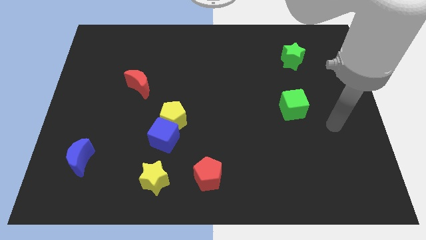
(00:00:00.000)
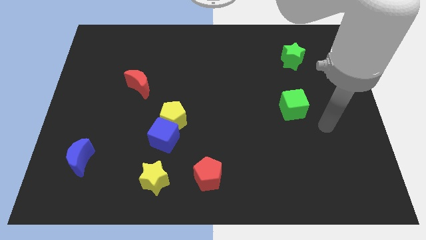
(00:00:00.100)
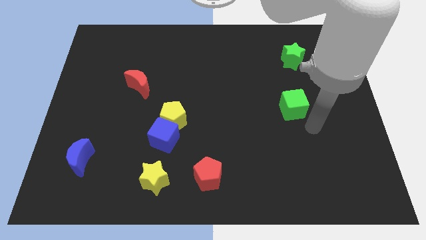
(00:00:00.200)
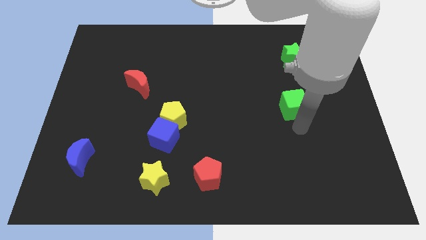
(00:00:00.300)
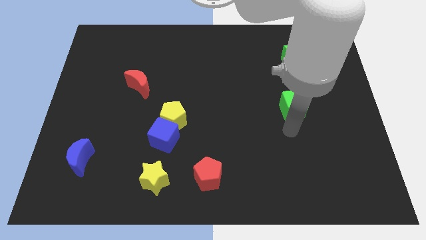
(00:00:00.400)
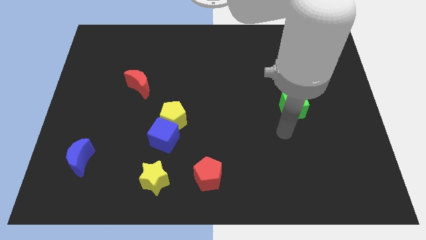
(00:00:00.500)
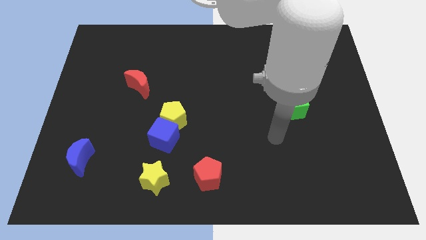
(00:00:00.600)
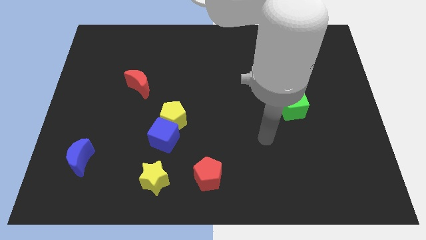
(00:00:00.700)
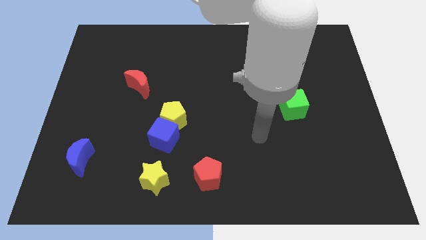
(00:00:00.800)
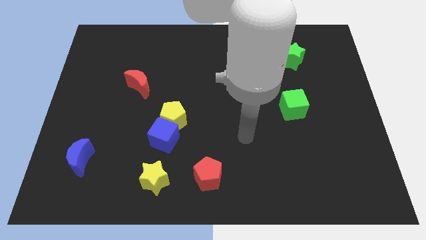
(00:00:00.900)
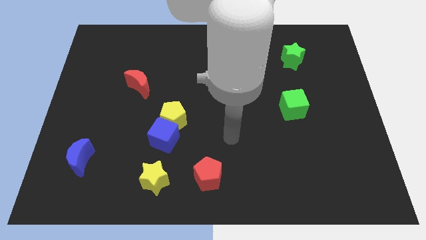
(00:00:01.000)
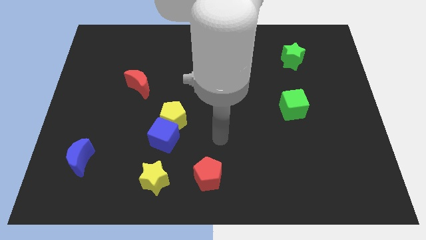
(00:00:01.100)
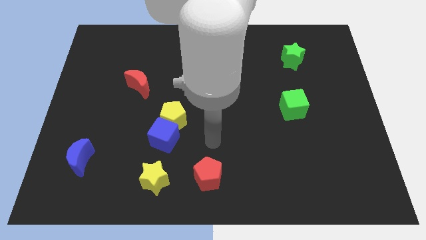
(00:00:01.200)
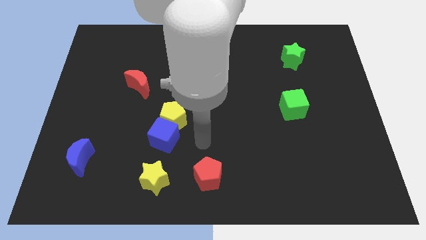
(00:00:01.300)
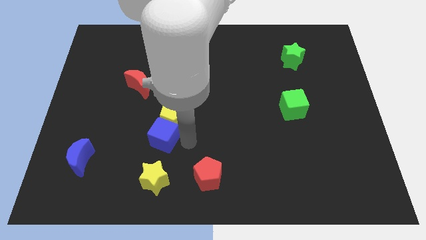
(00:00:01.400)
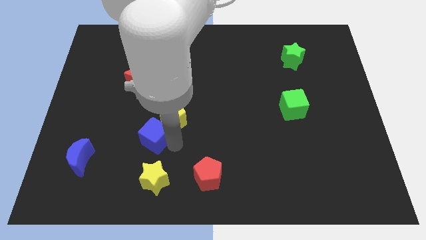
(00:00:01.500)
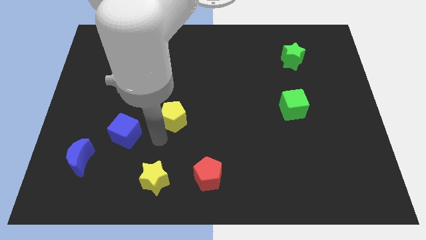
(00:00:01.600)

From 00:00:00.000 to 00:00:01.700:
move the yellow pentagon away from the blue cube

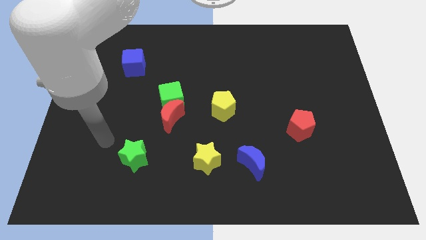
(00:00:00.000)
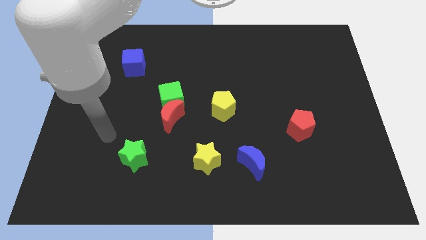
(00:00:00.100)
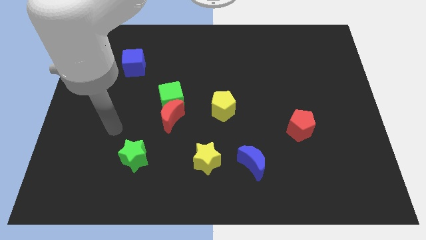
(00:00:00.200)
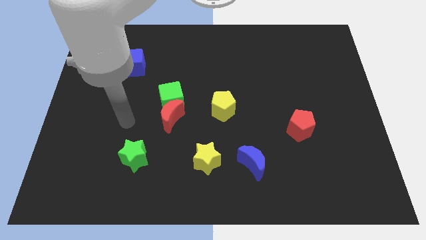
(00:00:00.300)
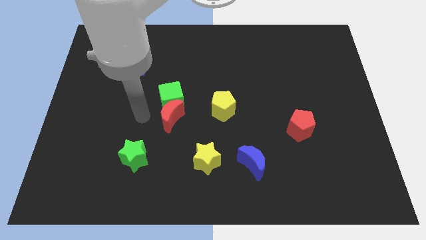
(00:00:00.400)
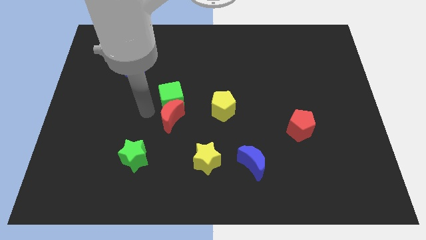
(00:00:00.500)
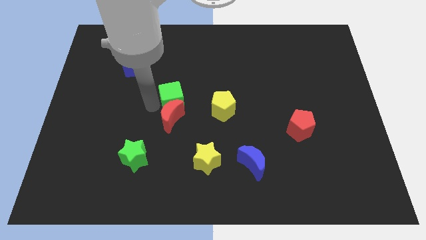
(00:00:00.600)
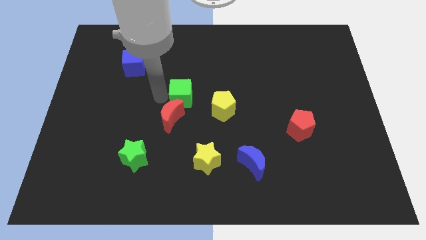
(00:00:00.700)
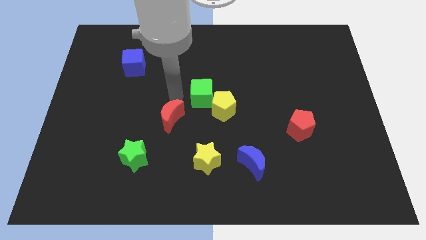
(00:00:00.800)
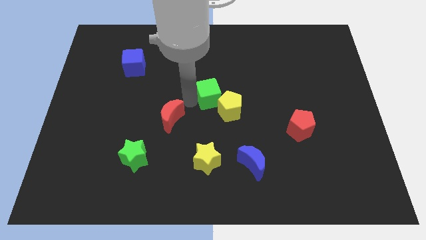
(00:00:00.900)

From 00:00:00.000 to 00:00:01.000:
separate the red moon from the green cube

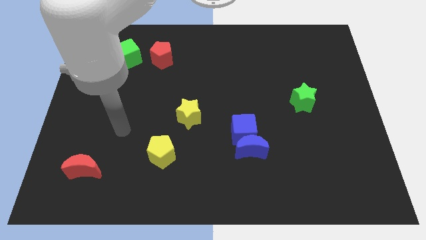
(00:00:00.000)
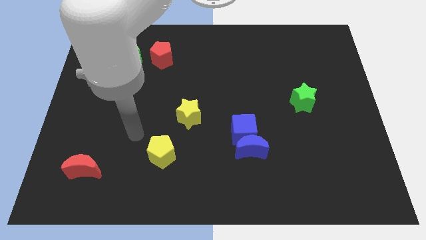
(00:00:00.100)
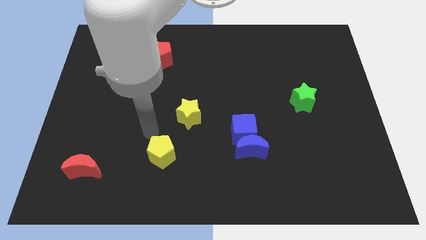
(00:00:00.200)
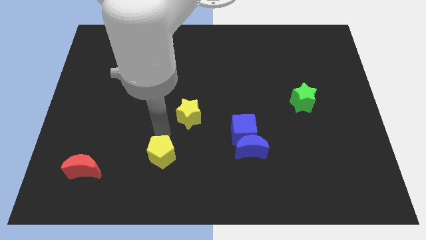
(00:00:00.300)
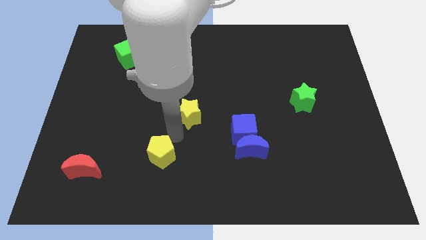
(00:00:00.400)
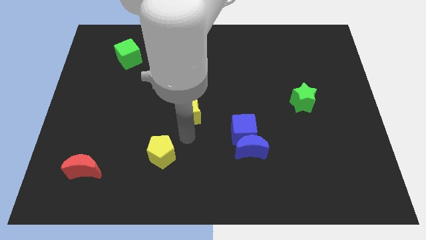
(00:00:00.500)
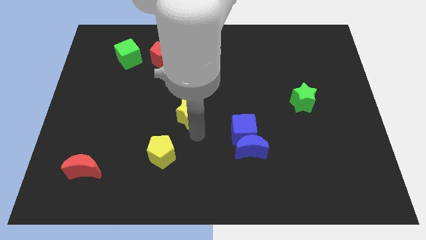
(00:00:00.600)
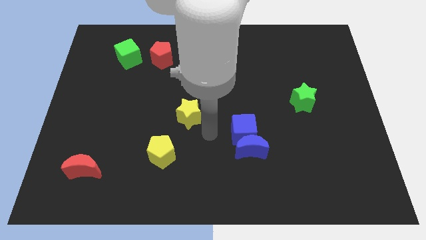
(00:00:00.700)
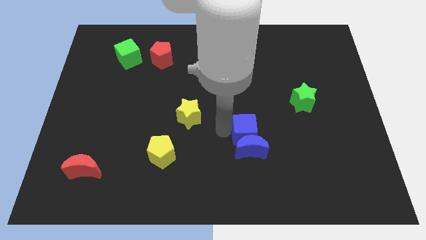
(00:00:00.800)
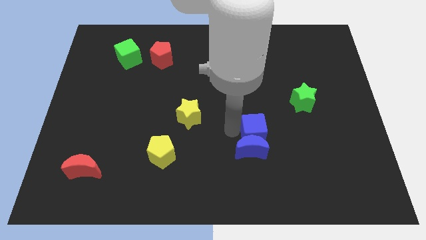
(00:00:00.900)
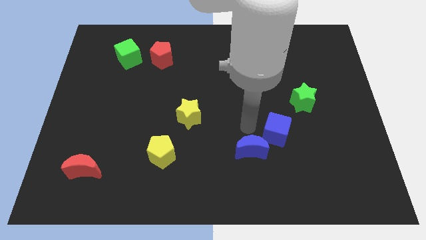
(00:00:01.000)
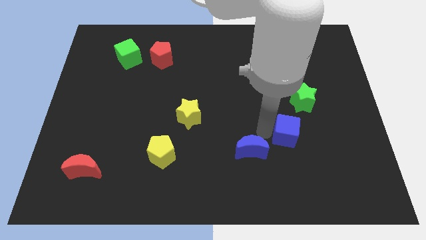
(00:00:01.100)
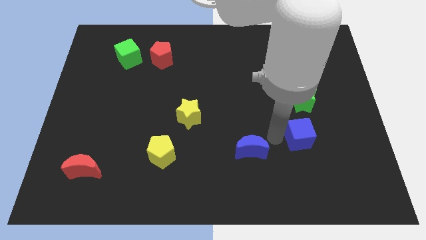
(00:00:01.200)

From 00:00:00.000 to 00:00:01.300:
pull the blue moon apart from the blue cube

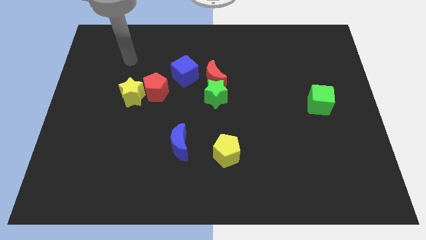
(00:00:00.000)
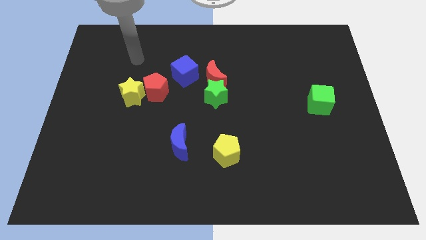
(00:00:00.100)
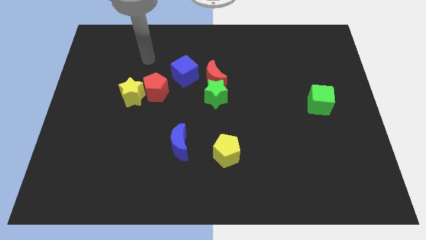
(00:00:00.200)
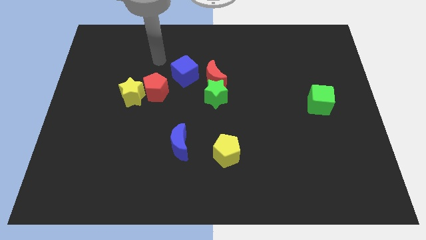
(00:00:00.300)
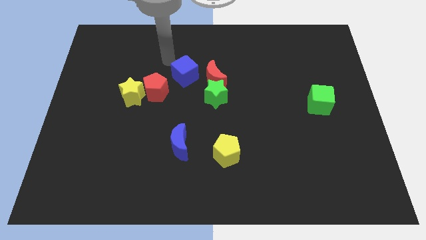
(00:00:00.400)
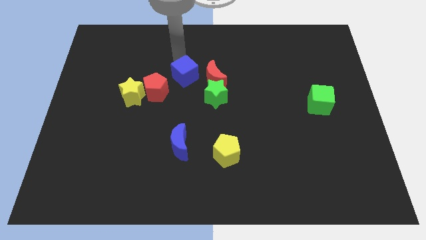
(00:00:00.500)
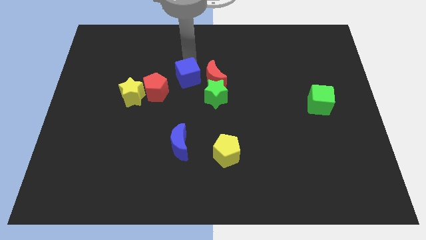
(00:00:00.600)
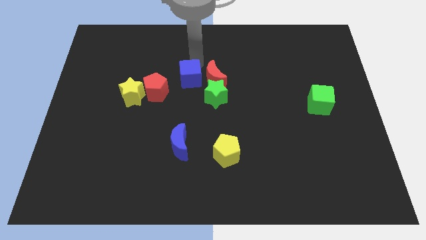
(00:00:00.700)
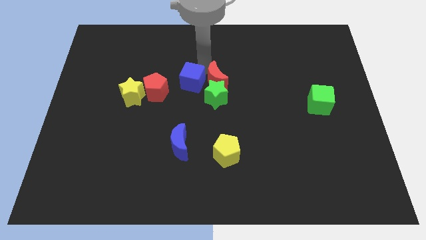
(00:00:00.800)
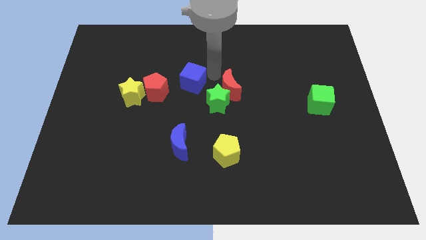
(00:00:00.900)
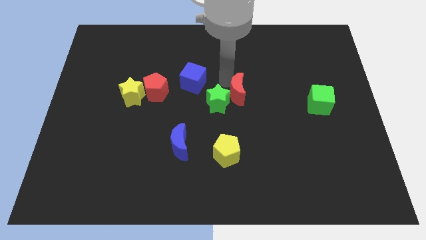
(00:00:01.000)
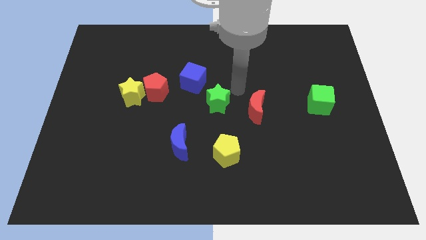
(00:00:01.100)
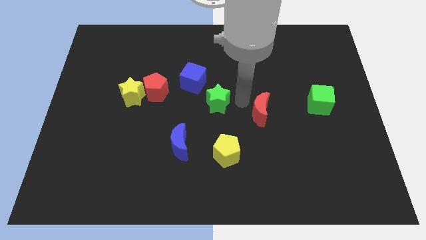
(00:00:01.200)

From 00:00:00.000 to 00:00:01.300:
separate the green star from the red moon

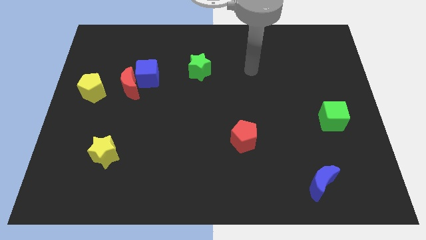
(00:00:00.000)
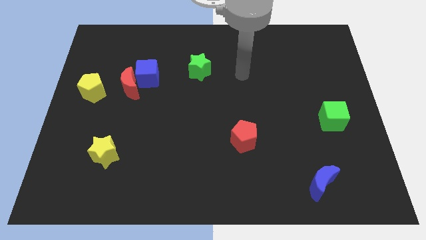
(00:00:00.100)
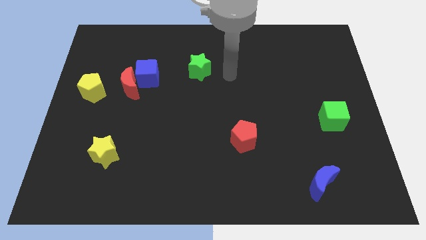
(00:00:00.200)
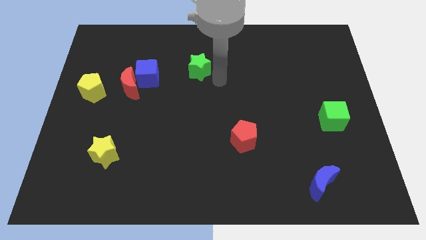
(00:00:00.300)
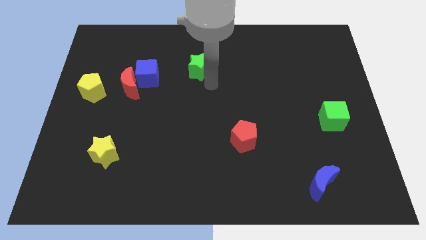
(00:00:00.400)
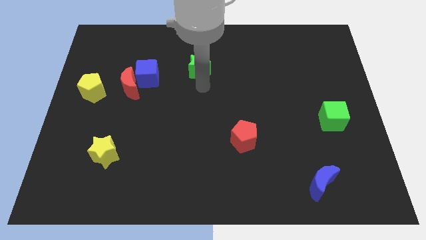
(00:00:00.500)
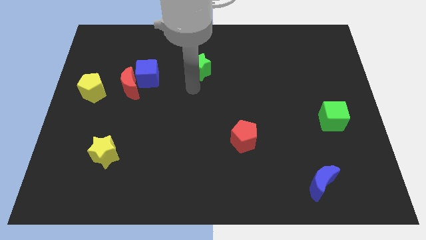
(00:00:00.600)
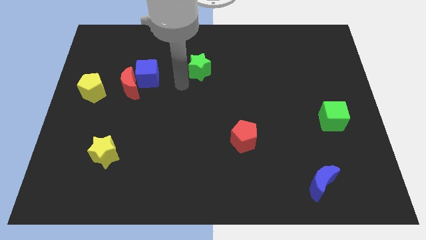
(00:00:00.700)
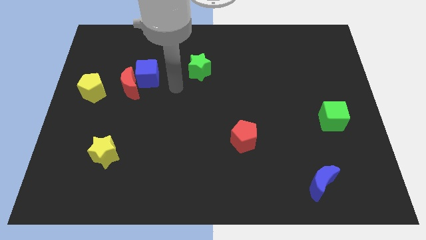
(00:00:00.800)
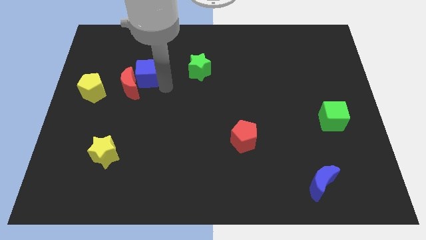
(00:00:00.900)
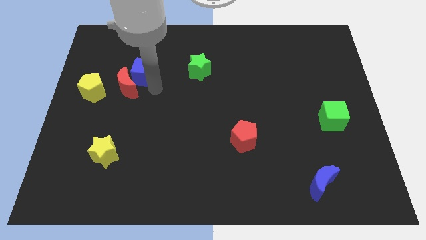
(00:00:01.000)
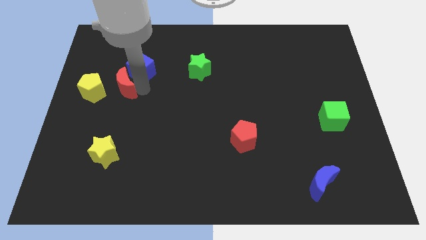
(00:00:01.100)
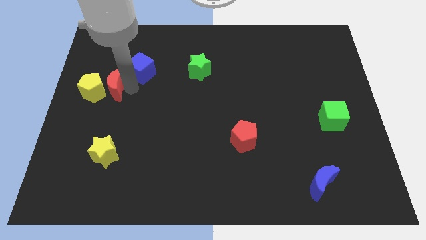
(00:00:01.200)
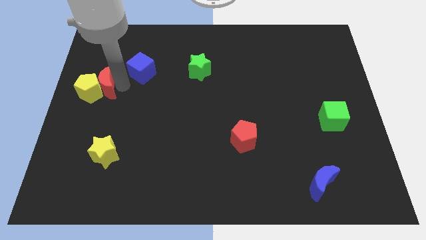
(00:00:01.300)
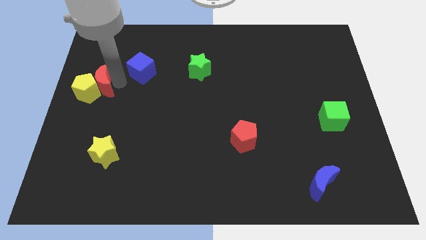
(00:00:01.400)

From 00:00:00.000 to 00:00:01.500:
move the blue cube away from the red moon

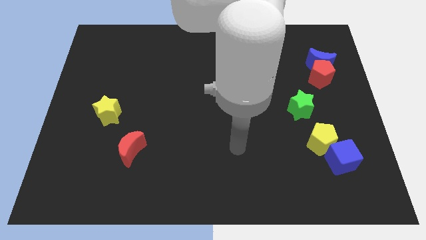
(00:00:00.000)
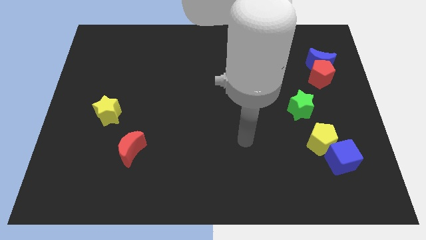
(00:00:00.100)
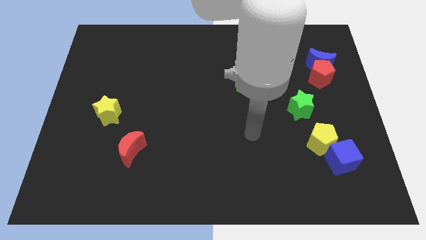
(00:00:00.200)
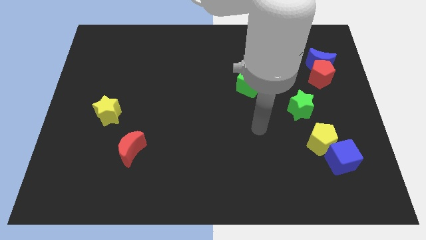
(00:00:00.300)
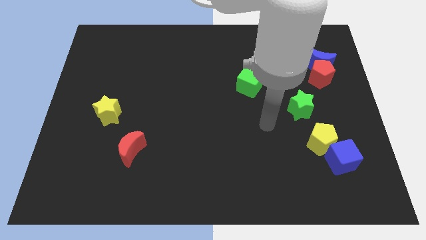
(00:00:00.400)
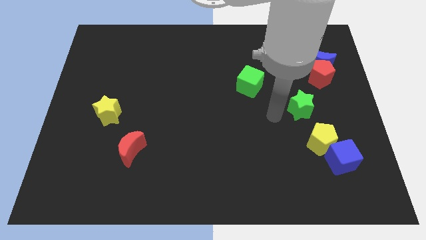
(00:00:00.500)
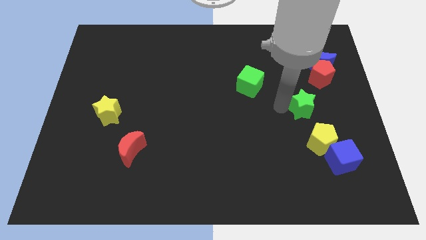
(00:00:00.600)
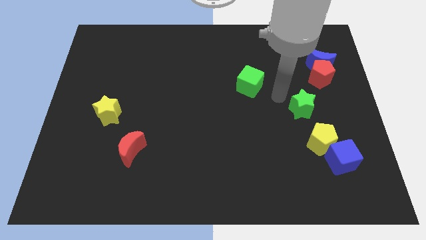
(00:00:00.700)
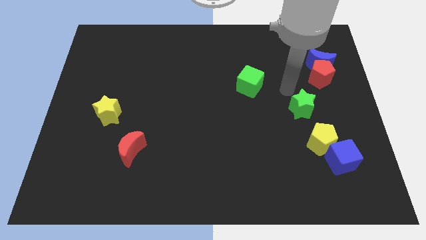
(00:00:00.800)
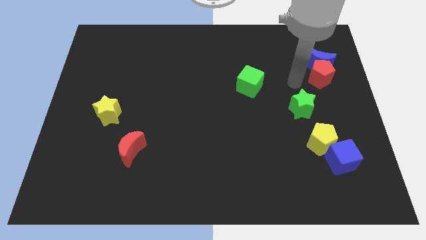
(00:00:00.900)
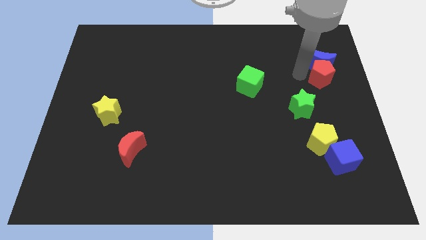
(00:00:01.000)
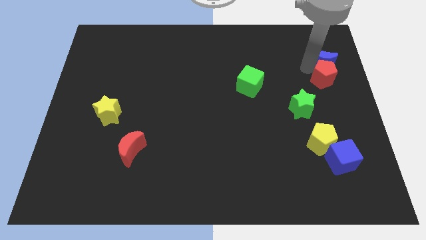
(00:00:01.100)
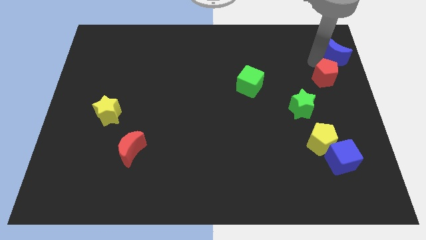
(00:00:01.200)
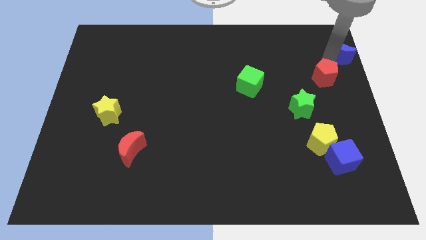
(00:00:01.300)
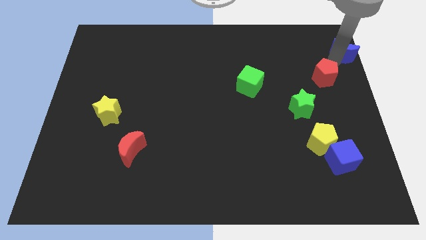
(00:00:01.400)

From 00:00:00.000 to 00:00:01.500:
separate the red pentagon from the blue moon

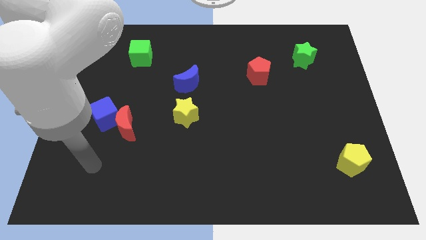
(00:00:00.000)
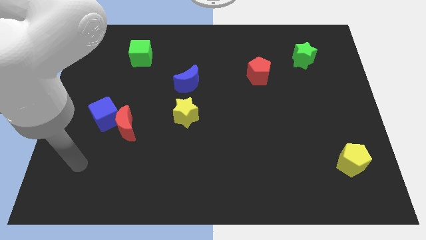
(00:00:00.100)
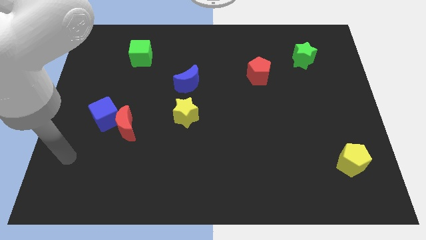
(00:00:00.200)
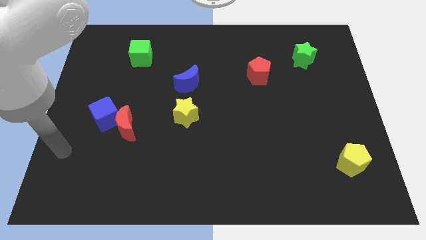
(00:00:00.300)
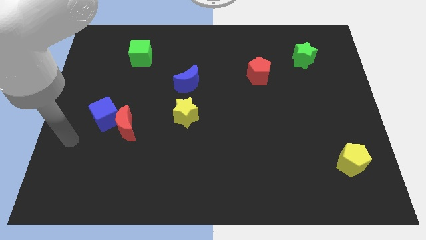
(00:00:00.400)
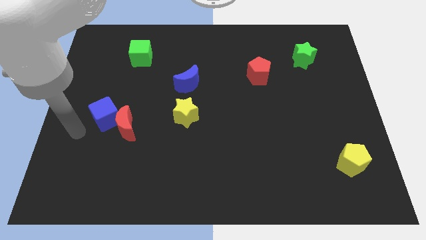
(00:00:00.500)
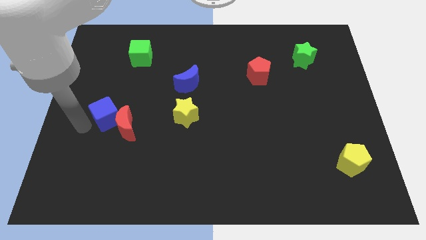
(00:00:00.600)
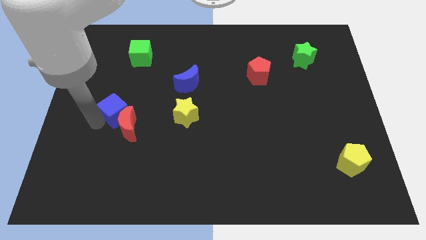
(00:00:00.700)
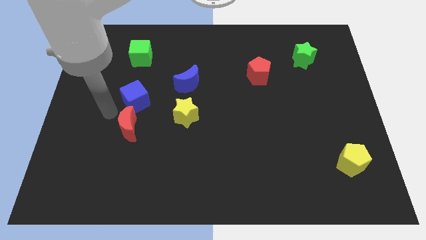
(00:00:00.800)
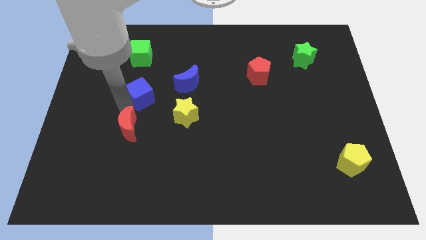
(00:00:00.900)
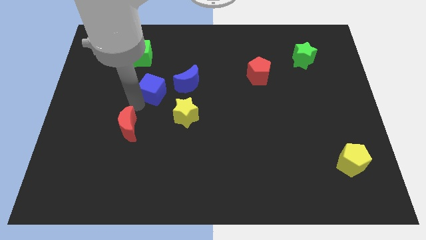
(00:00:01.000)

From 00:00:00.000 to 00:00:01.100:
pull the red moon apart from the blue cube
